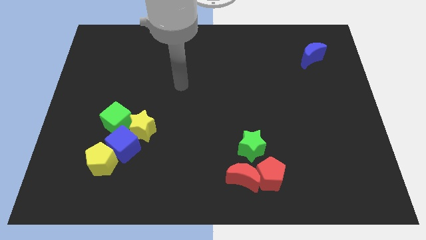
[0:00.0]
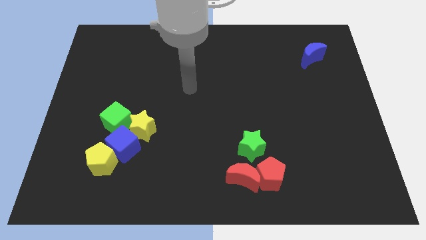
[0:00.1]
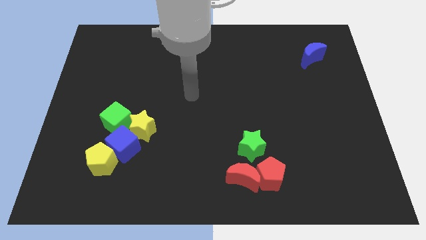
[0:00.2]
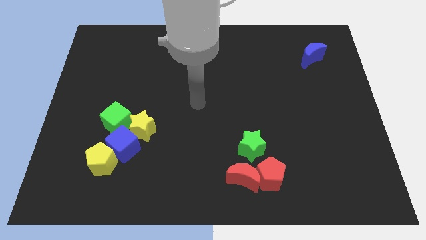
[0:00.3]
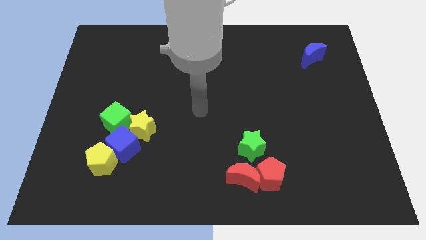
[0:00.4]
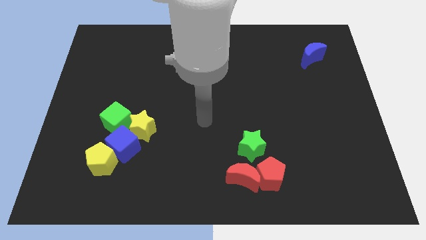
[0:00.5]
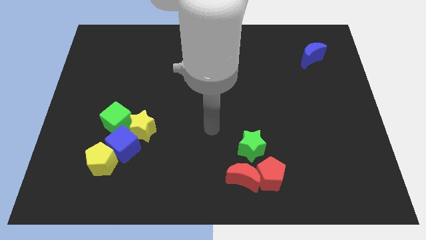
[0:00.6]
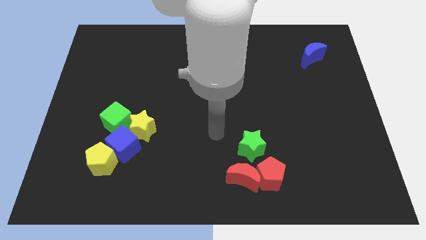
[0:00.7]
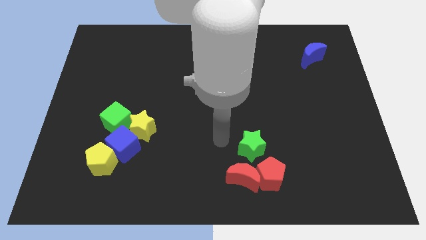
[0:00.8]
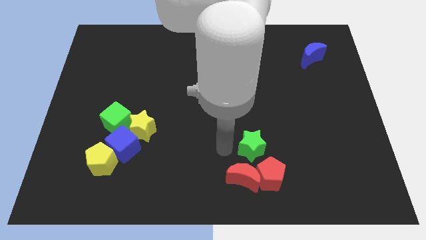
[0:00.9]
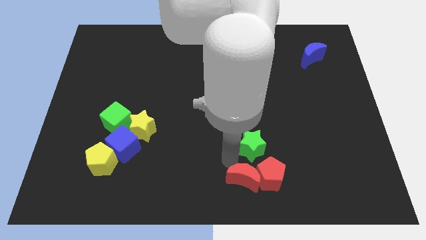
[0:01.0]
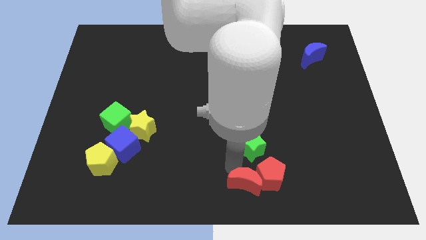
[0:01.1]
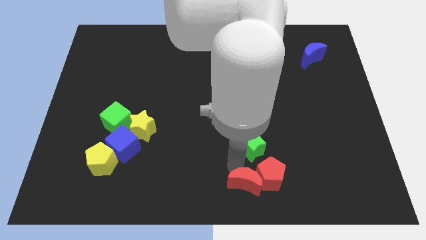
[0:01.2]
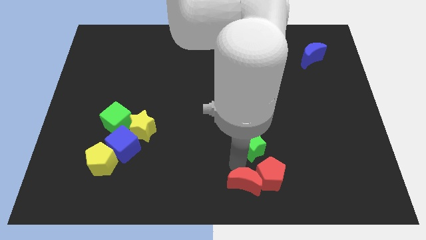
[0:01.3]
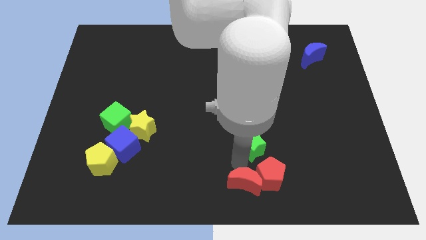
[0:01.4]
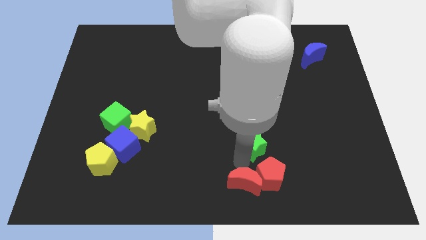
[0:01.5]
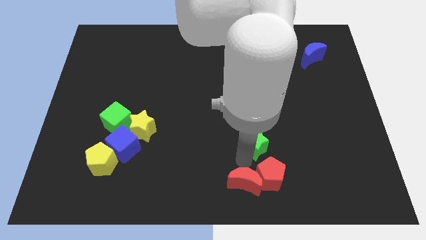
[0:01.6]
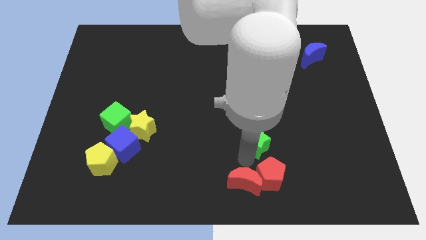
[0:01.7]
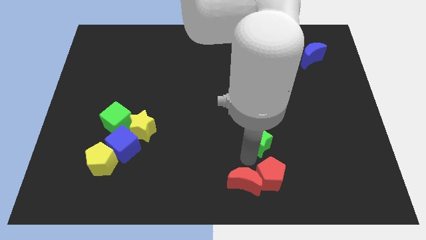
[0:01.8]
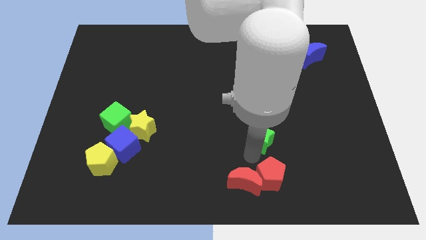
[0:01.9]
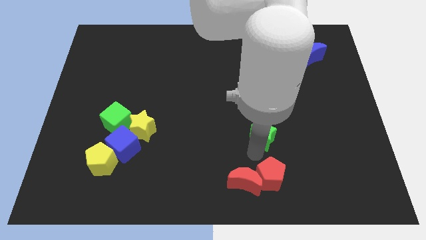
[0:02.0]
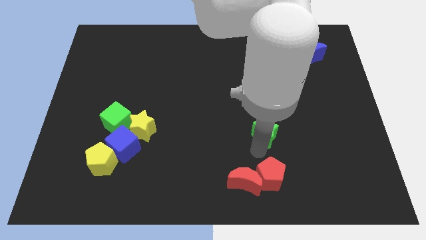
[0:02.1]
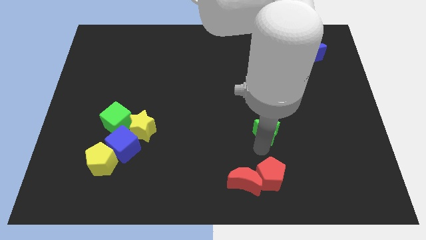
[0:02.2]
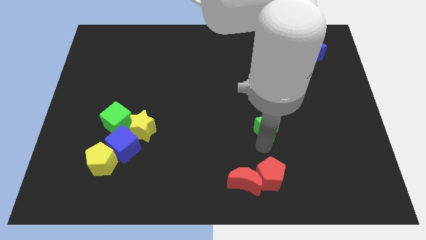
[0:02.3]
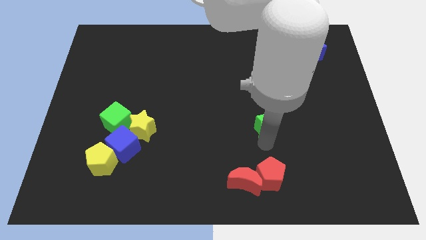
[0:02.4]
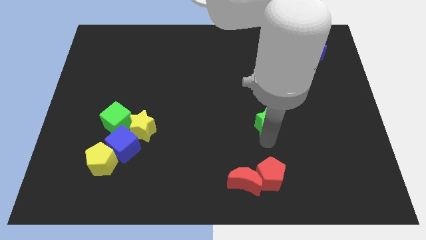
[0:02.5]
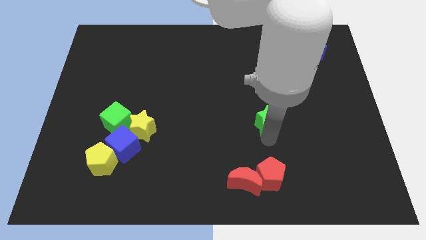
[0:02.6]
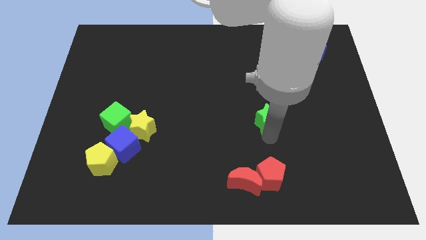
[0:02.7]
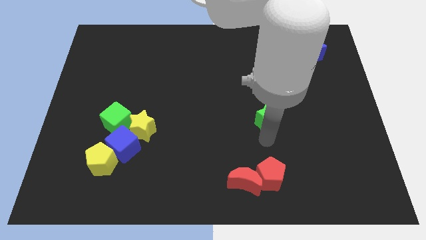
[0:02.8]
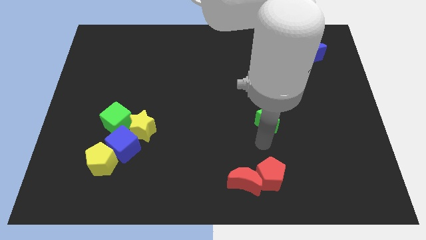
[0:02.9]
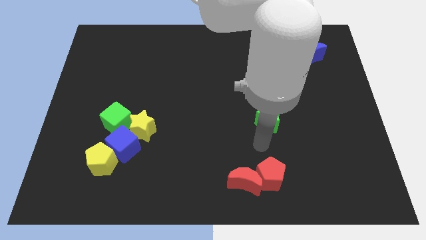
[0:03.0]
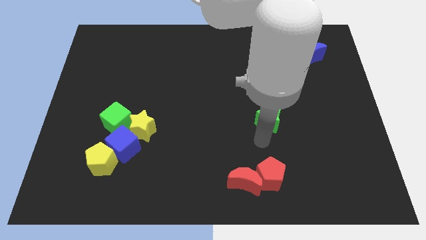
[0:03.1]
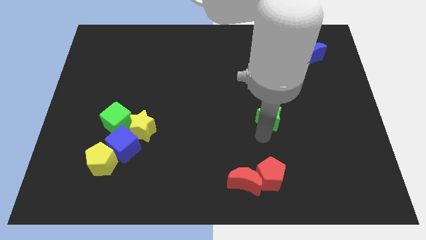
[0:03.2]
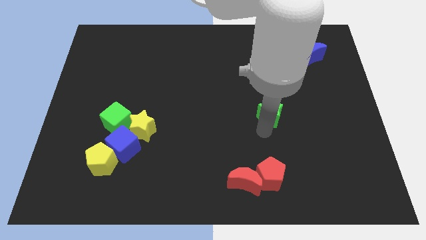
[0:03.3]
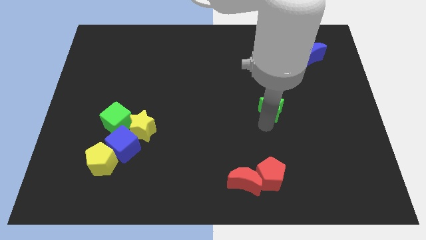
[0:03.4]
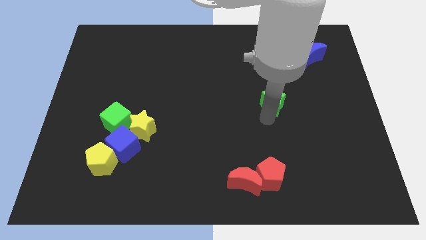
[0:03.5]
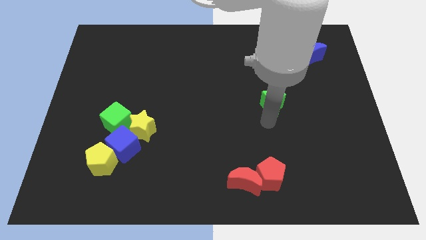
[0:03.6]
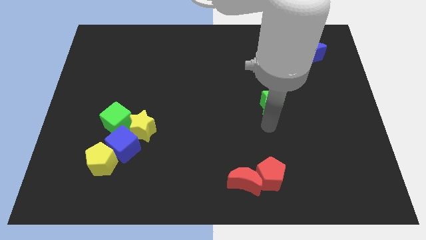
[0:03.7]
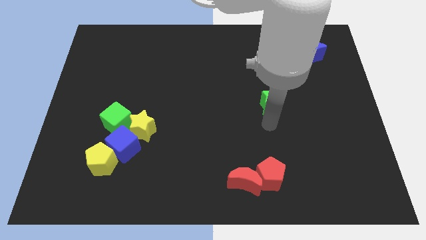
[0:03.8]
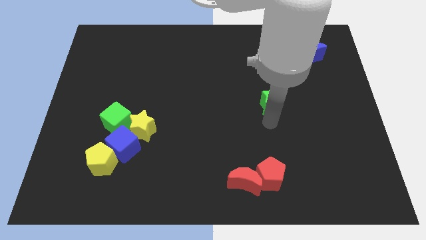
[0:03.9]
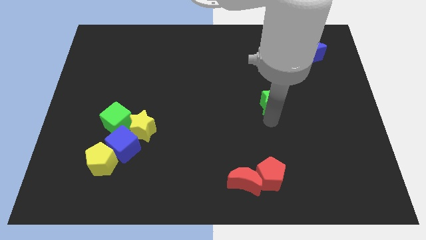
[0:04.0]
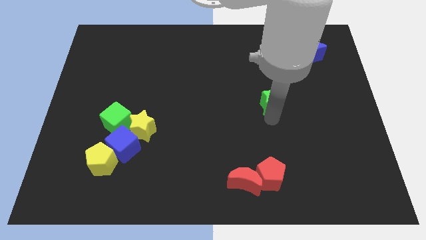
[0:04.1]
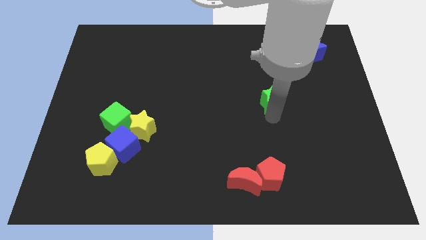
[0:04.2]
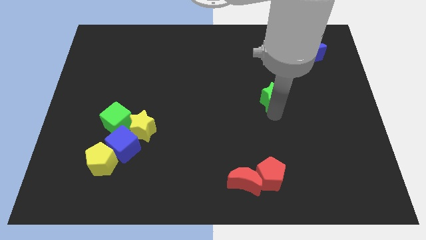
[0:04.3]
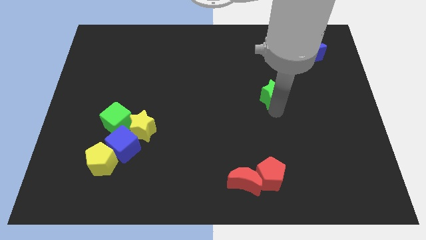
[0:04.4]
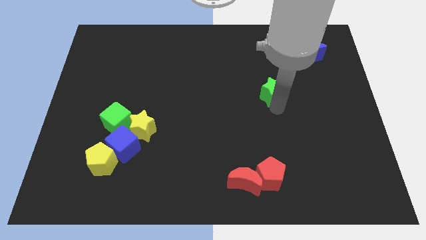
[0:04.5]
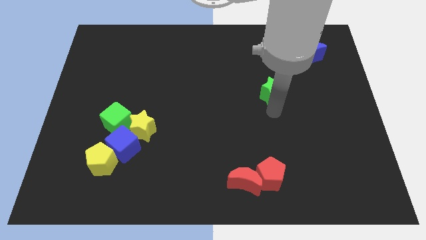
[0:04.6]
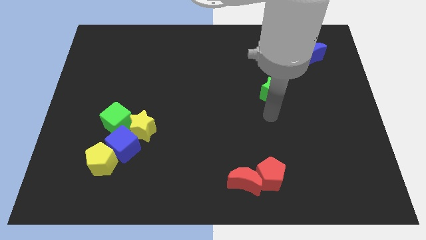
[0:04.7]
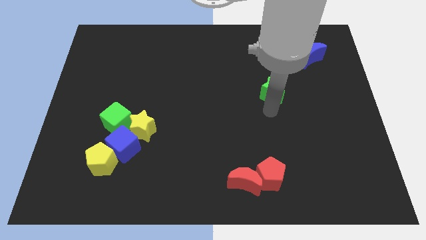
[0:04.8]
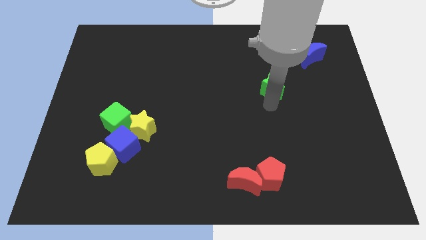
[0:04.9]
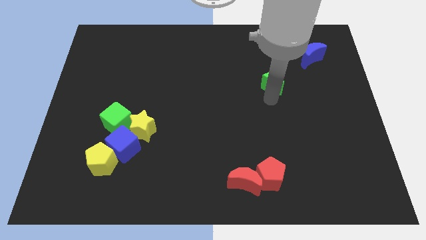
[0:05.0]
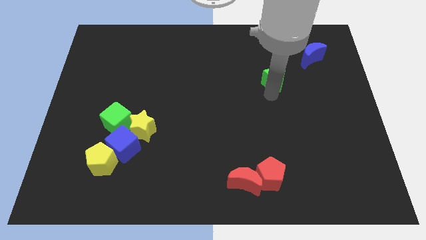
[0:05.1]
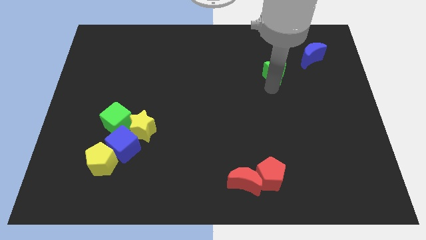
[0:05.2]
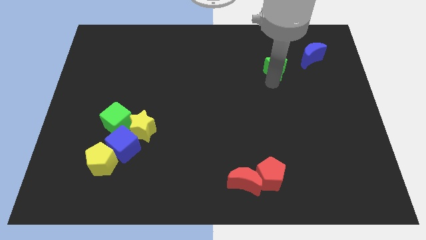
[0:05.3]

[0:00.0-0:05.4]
move the green star to the left of the blue moon

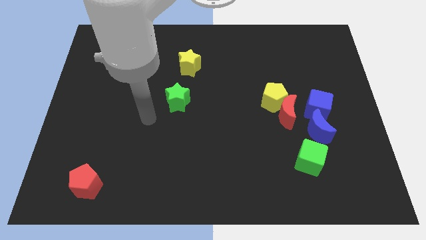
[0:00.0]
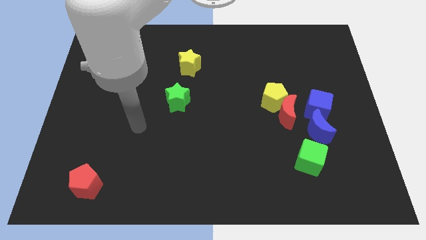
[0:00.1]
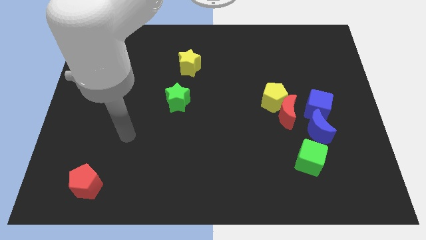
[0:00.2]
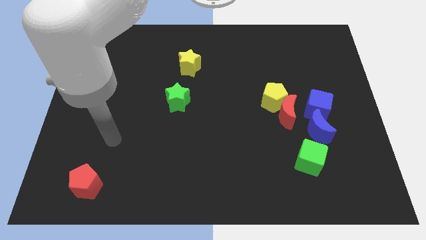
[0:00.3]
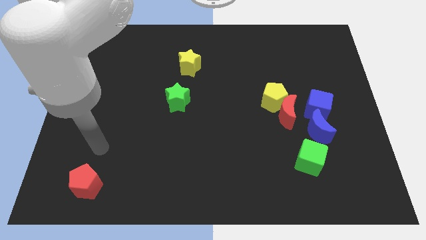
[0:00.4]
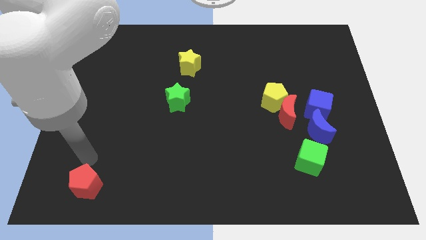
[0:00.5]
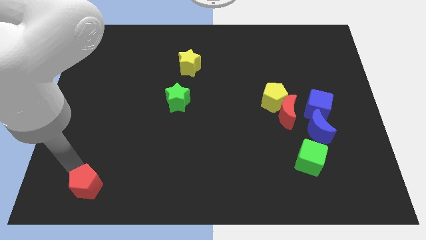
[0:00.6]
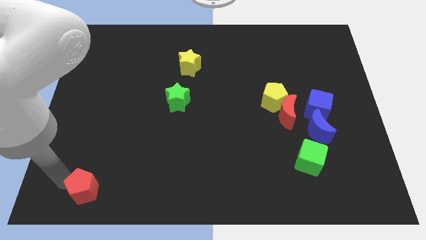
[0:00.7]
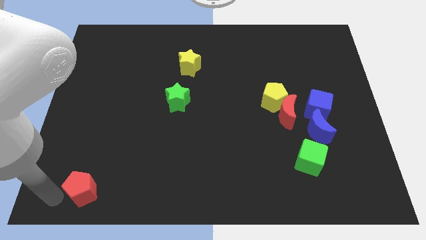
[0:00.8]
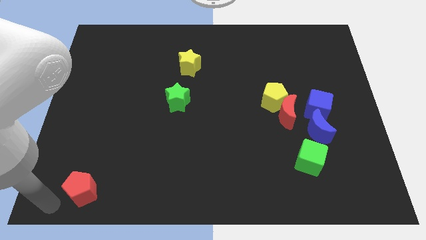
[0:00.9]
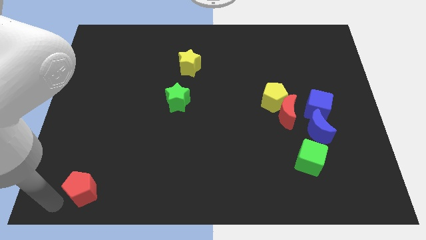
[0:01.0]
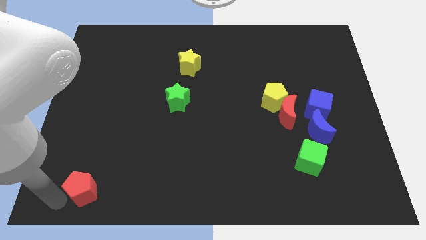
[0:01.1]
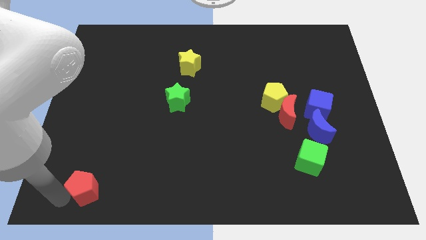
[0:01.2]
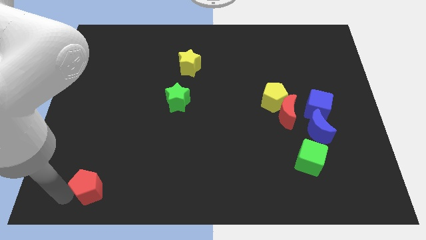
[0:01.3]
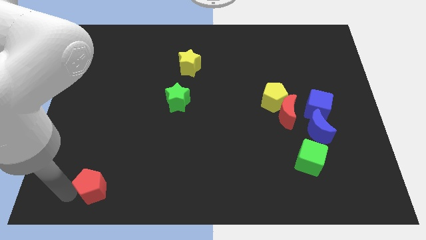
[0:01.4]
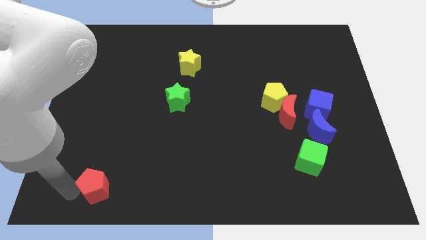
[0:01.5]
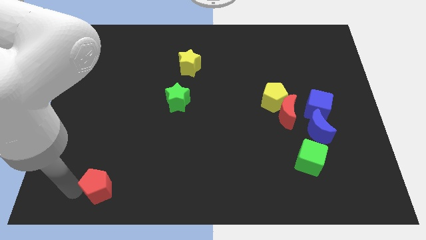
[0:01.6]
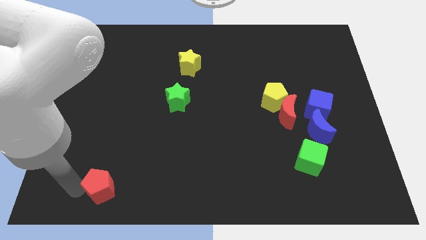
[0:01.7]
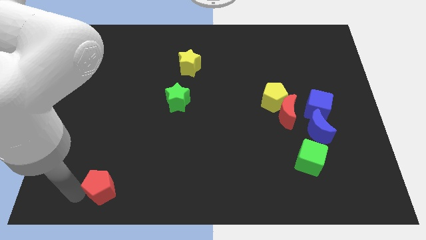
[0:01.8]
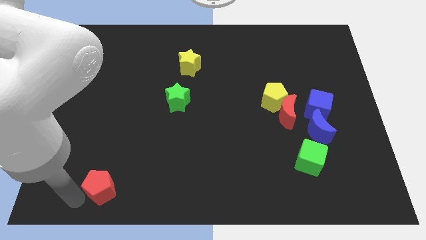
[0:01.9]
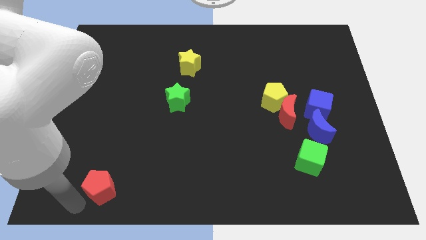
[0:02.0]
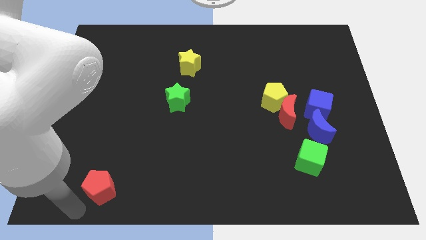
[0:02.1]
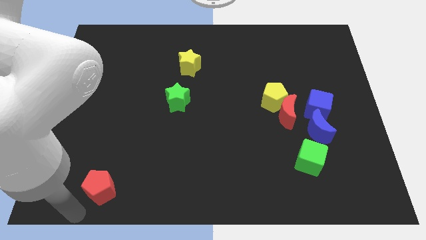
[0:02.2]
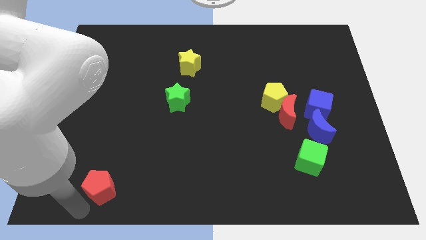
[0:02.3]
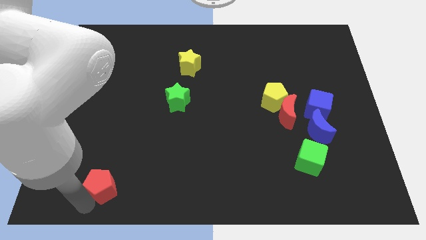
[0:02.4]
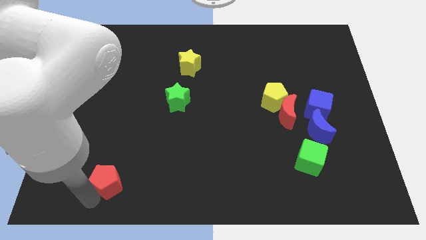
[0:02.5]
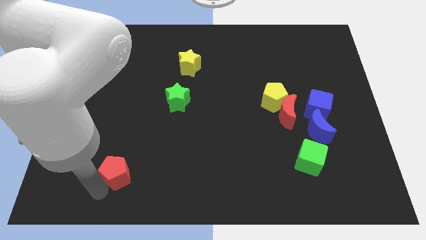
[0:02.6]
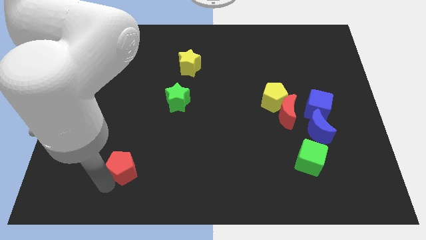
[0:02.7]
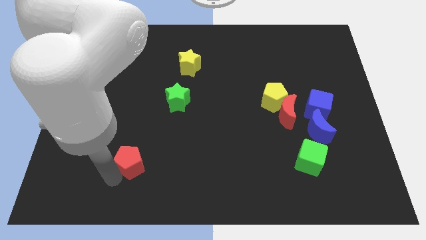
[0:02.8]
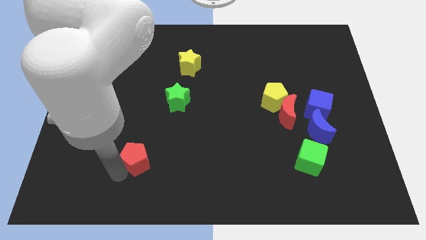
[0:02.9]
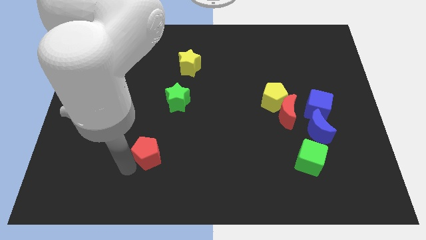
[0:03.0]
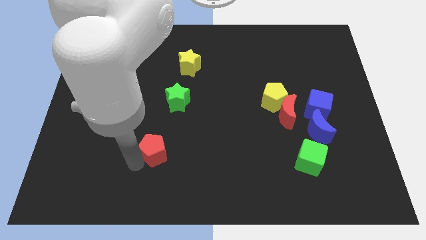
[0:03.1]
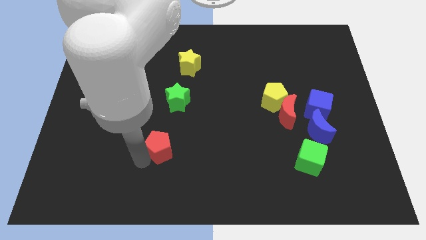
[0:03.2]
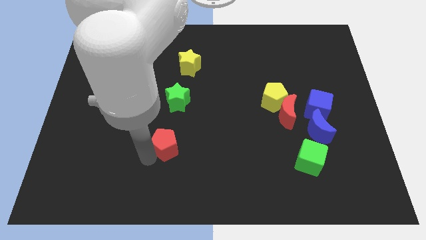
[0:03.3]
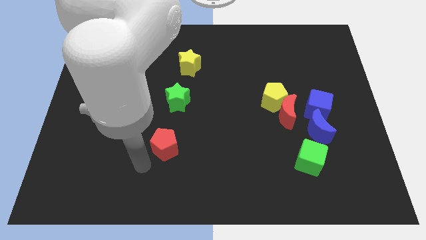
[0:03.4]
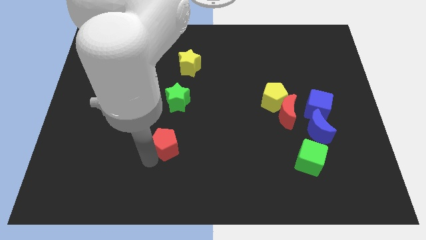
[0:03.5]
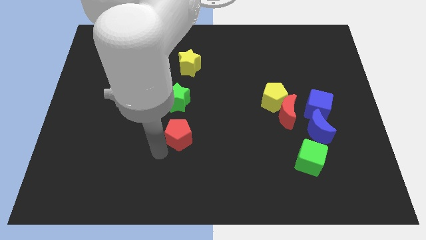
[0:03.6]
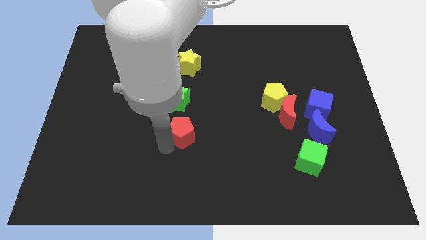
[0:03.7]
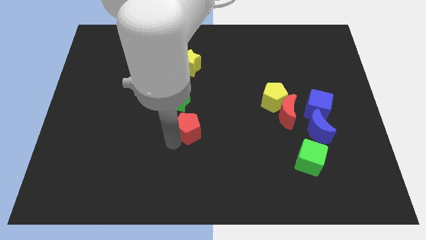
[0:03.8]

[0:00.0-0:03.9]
push the red pentagon to the bottom right side of the green star
